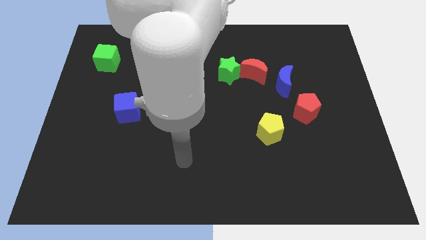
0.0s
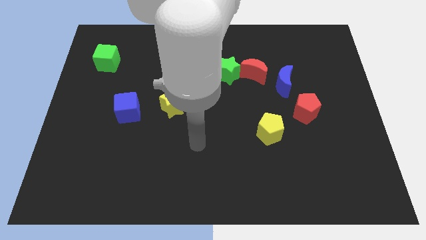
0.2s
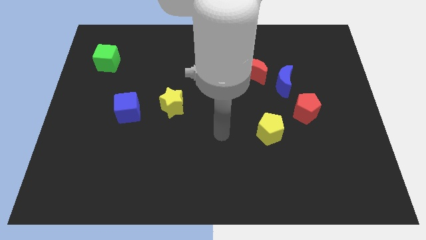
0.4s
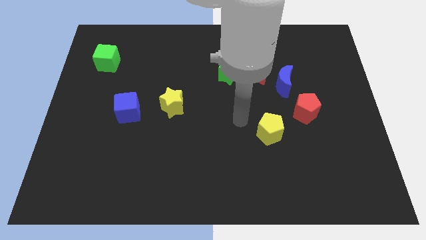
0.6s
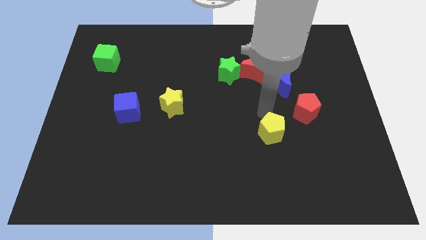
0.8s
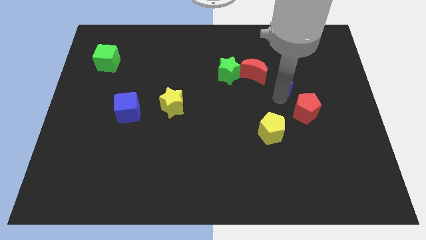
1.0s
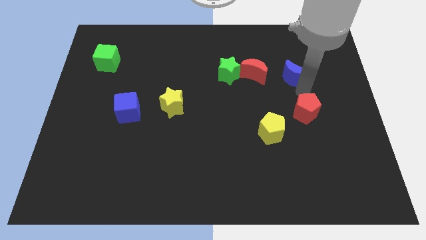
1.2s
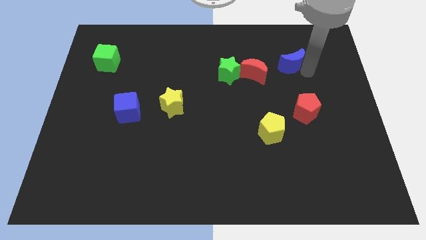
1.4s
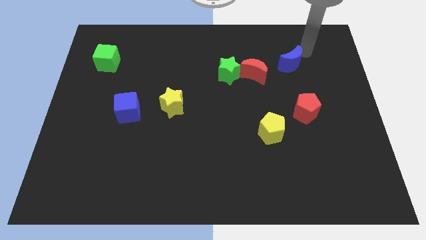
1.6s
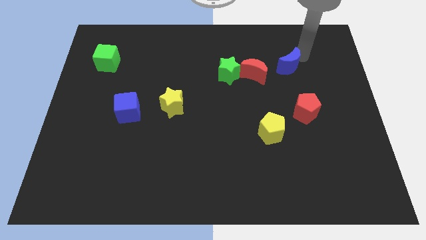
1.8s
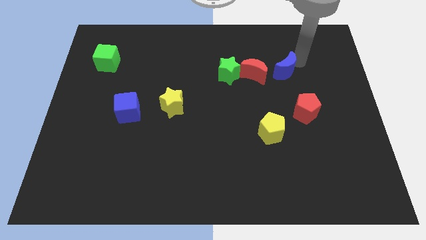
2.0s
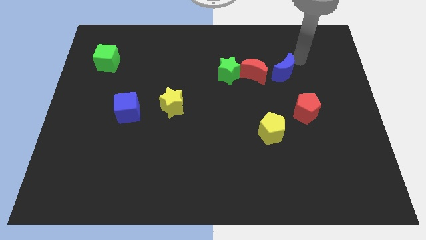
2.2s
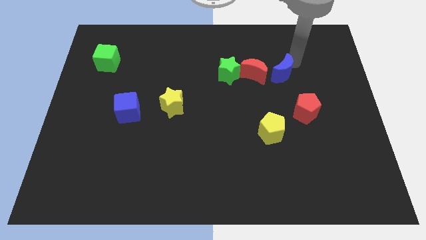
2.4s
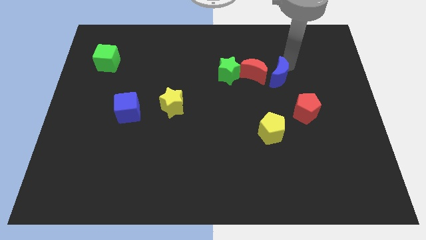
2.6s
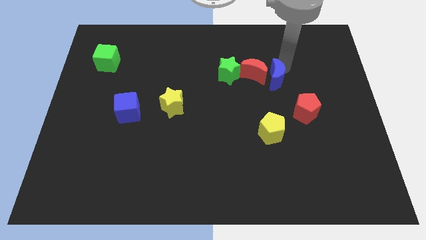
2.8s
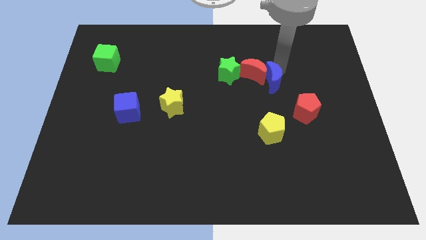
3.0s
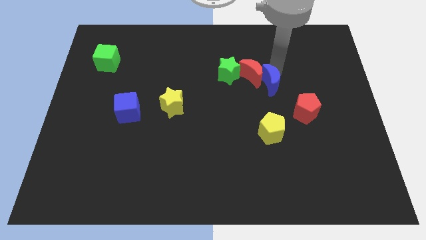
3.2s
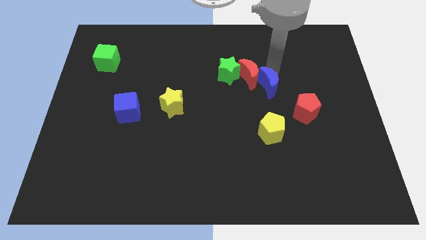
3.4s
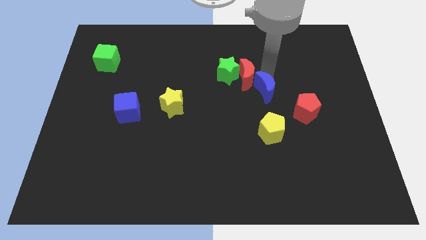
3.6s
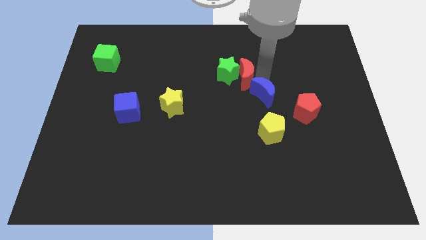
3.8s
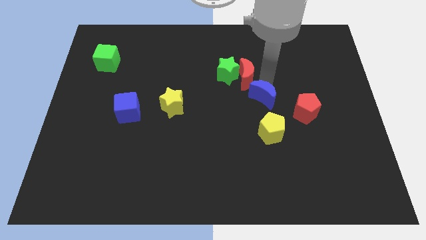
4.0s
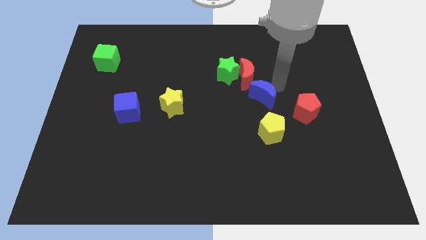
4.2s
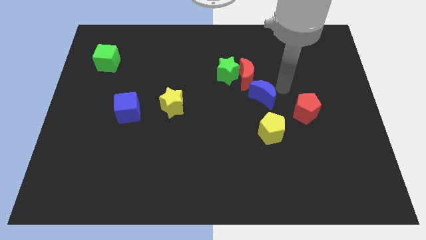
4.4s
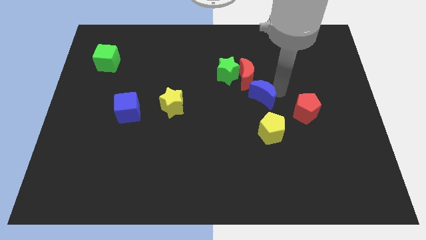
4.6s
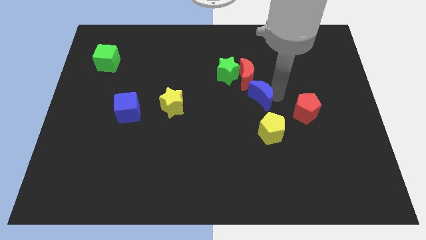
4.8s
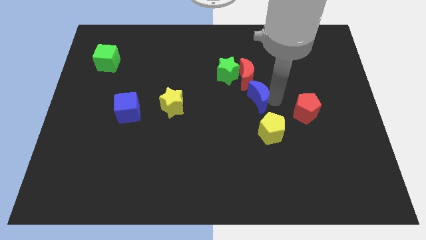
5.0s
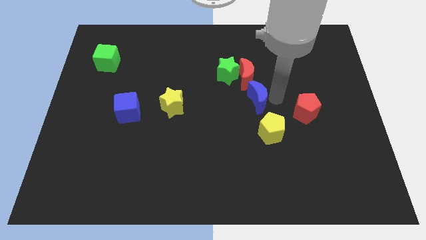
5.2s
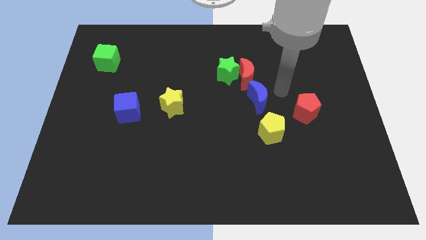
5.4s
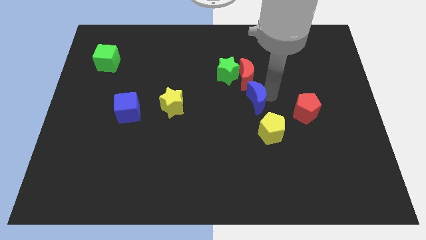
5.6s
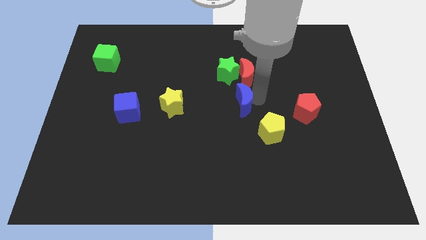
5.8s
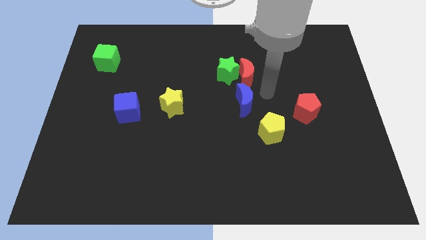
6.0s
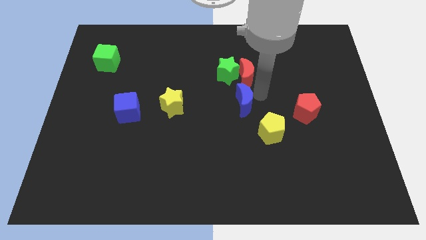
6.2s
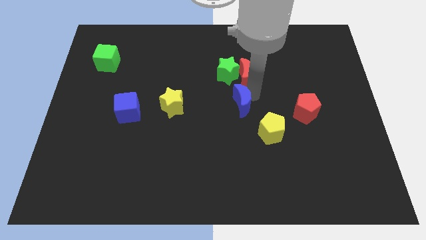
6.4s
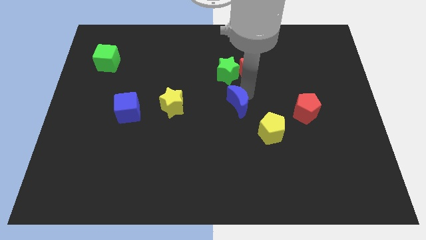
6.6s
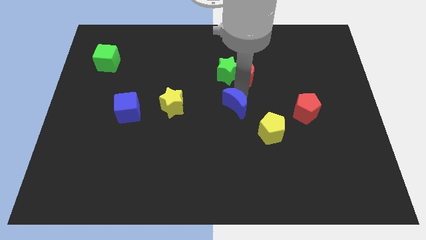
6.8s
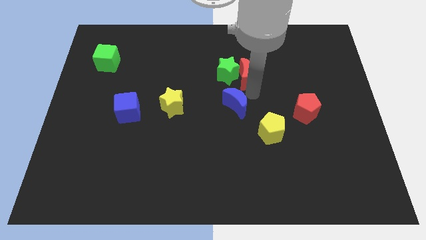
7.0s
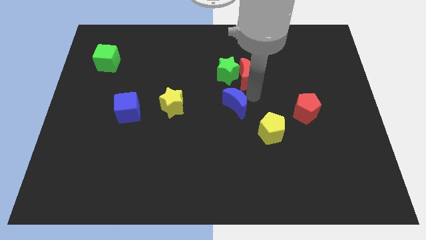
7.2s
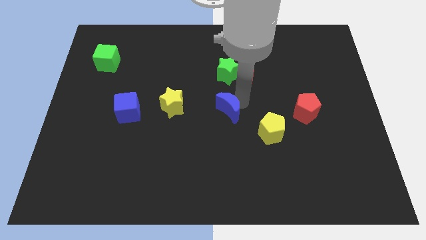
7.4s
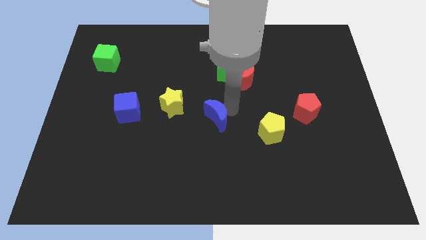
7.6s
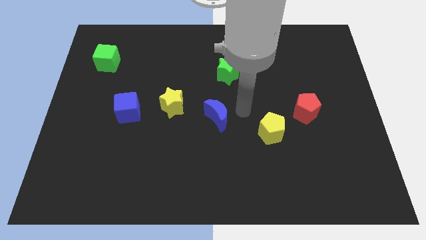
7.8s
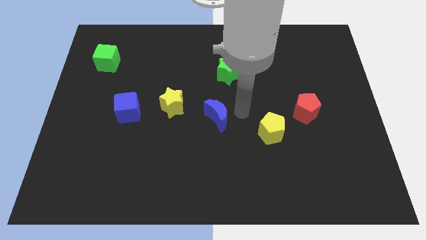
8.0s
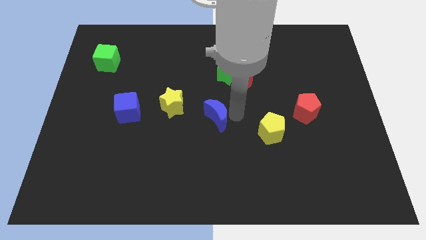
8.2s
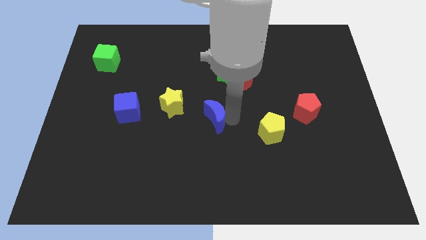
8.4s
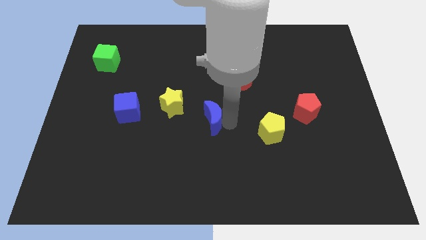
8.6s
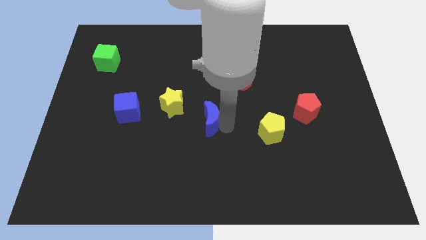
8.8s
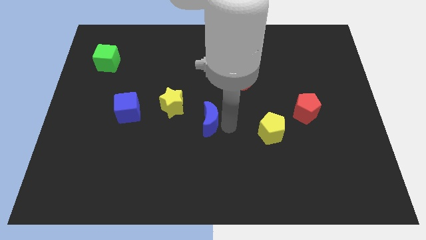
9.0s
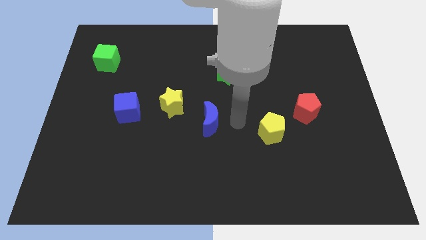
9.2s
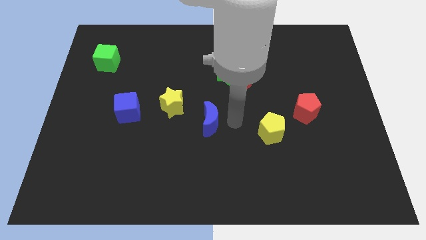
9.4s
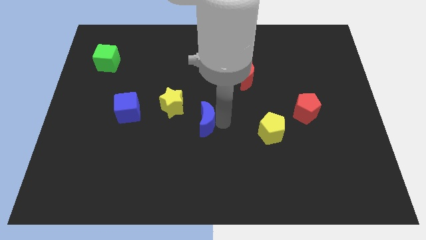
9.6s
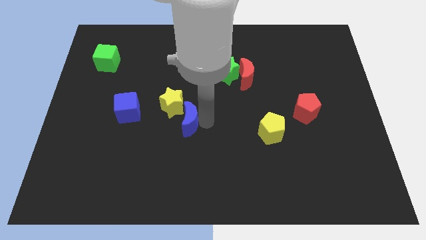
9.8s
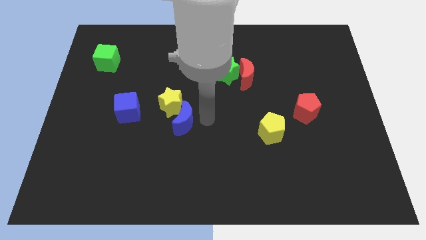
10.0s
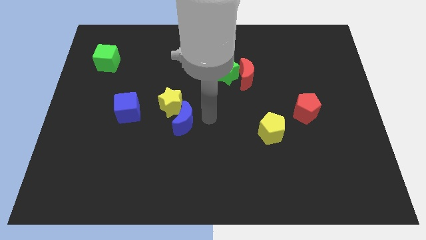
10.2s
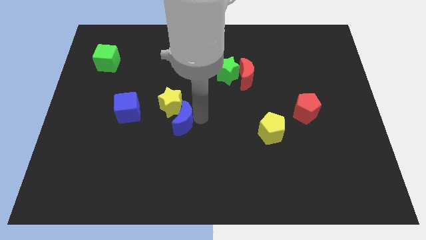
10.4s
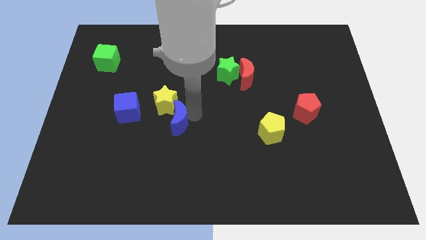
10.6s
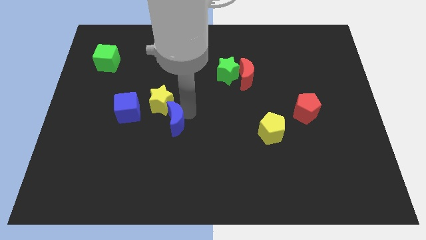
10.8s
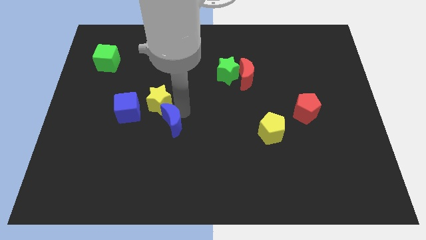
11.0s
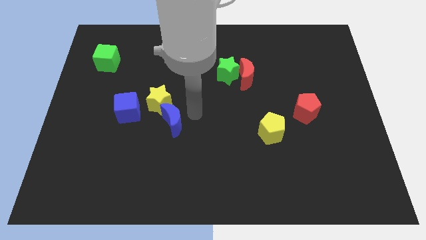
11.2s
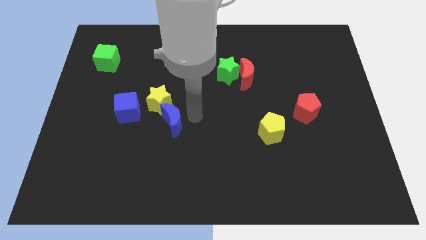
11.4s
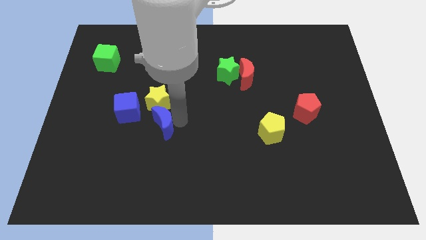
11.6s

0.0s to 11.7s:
move the blue moon to the bottom right side of the blue cube

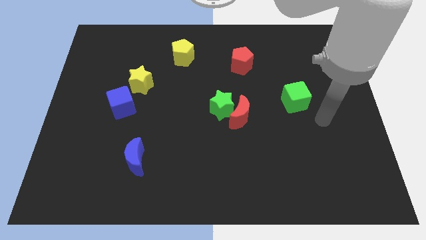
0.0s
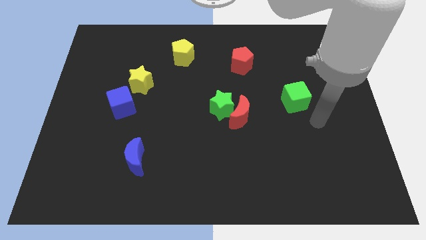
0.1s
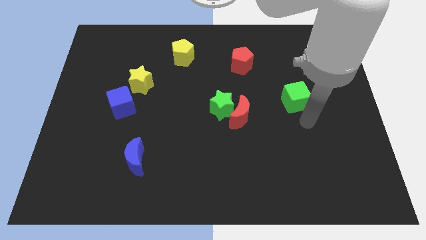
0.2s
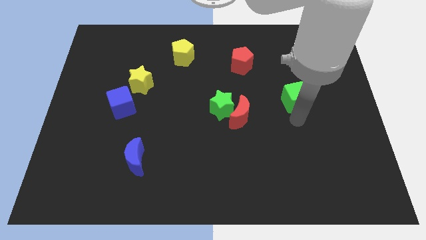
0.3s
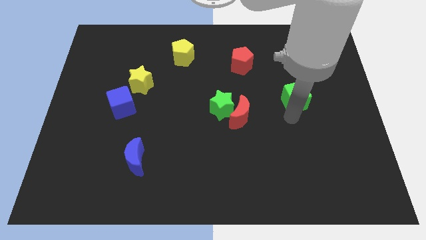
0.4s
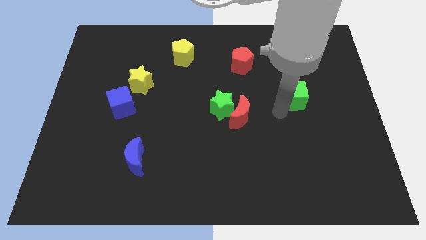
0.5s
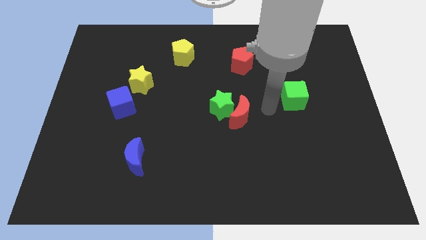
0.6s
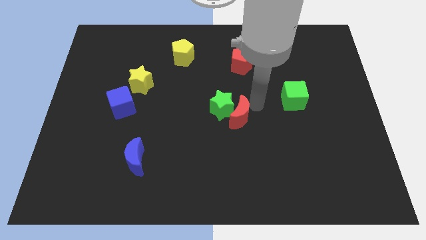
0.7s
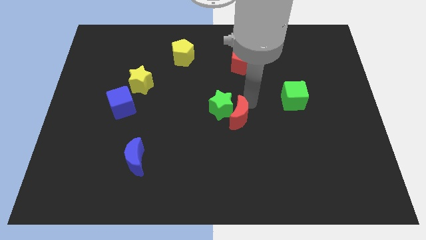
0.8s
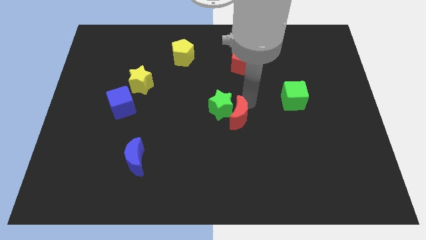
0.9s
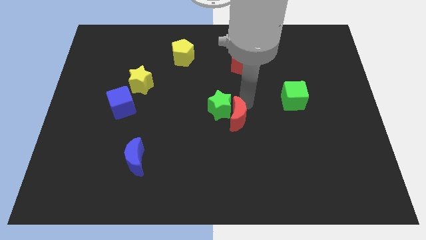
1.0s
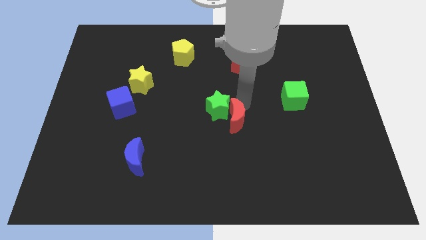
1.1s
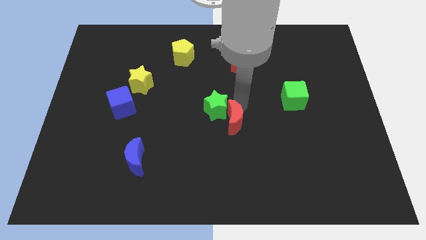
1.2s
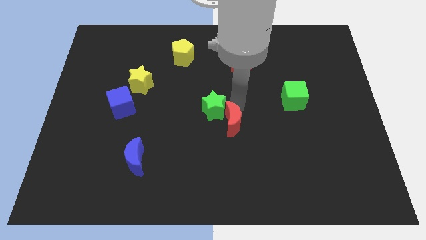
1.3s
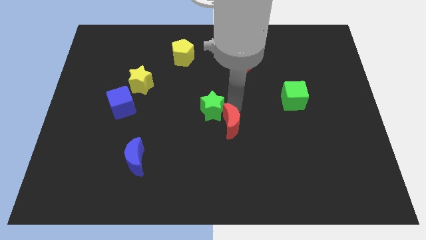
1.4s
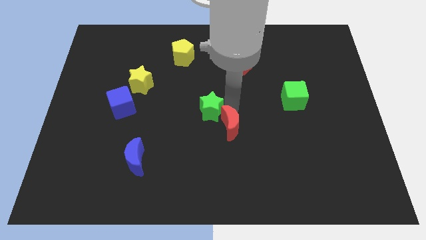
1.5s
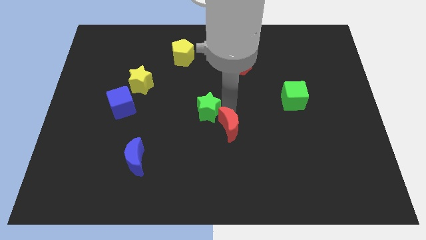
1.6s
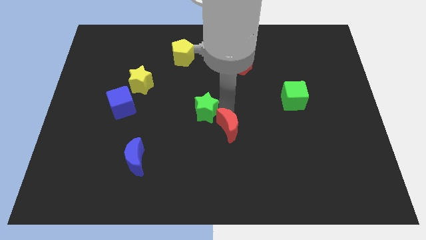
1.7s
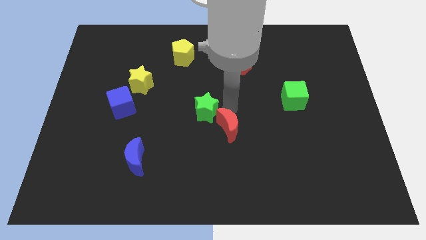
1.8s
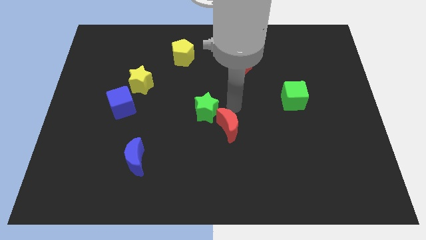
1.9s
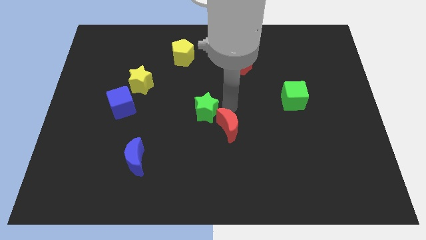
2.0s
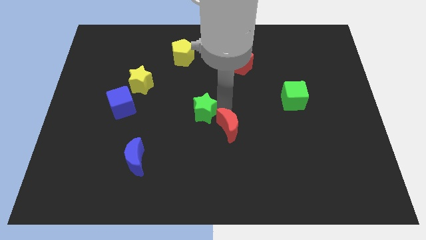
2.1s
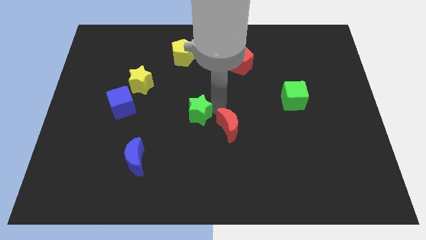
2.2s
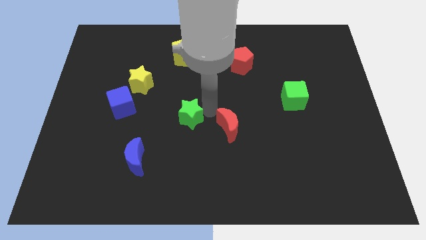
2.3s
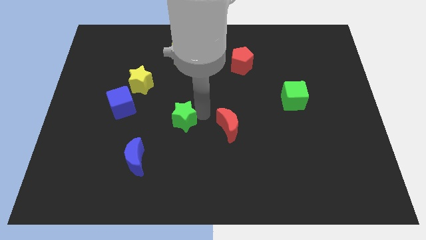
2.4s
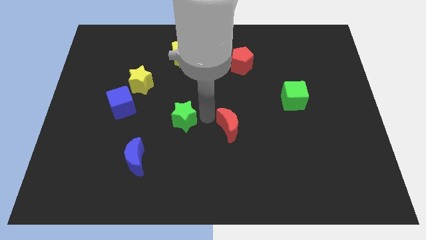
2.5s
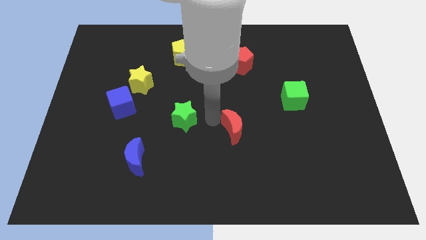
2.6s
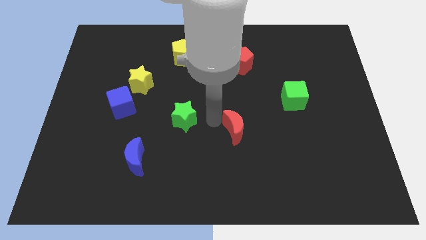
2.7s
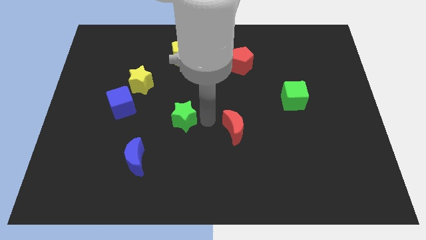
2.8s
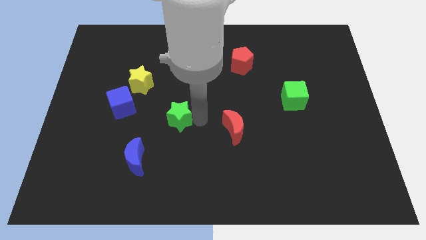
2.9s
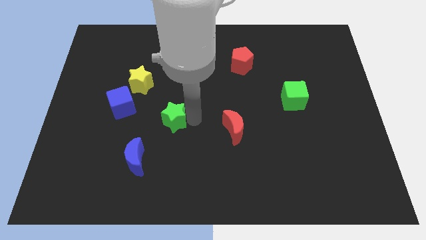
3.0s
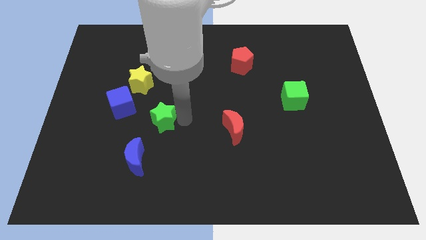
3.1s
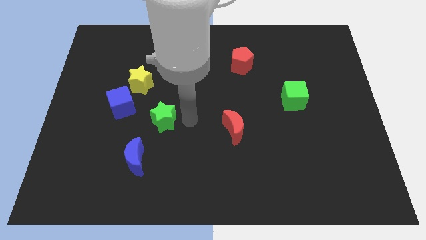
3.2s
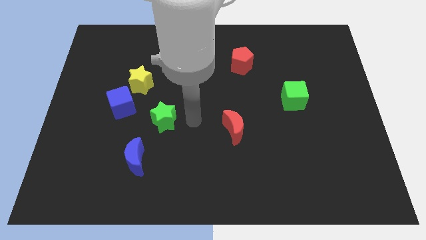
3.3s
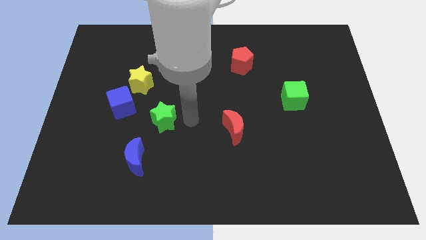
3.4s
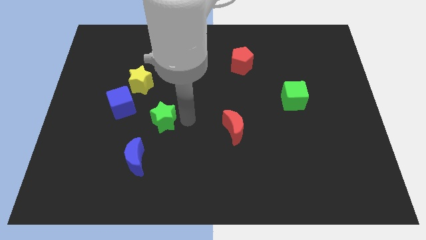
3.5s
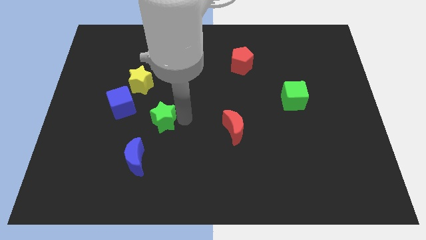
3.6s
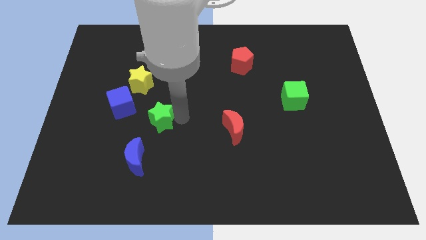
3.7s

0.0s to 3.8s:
move the green star above the blue moon
